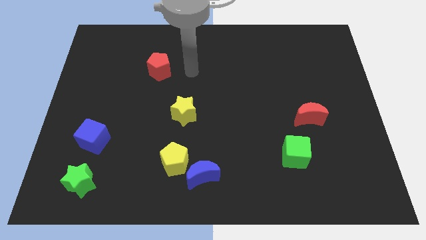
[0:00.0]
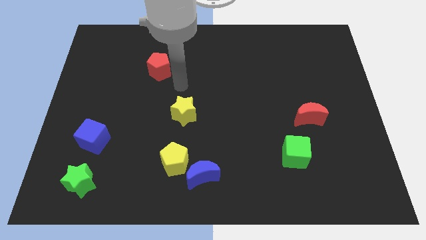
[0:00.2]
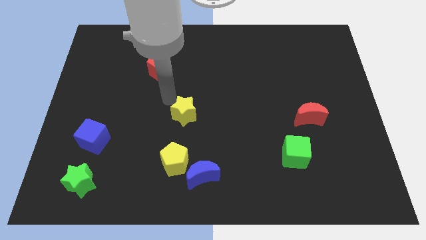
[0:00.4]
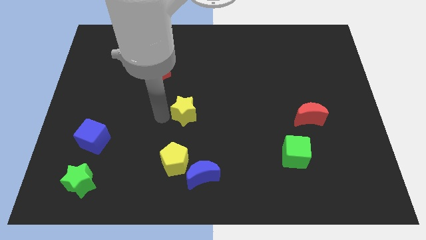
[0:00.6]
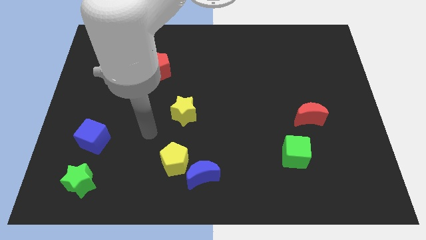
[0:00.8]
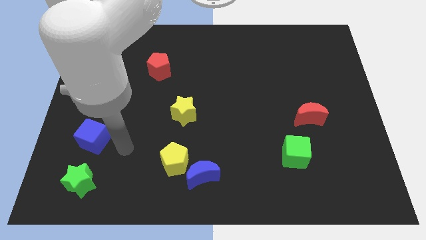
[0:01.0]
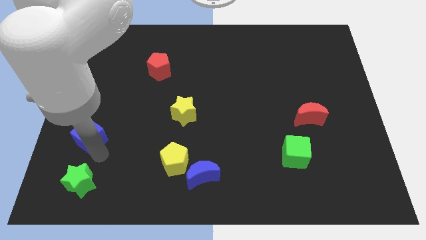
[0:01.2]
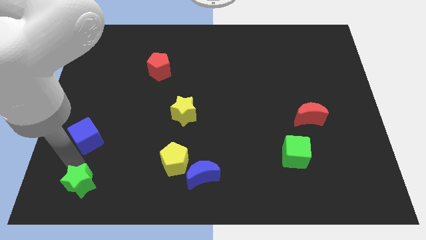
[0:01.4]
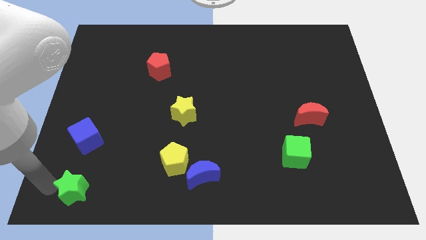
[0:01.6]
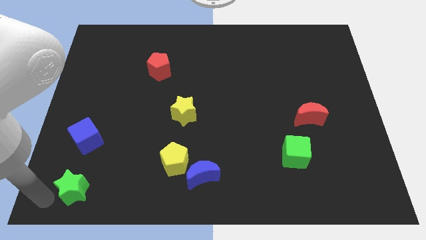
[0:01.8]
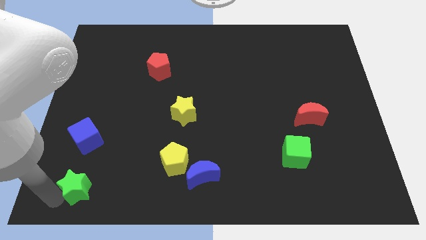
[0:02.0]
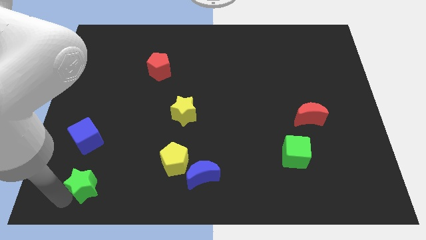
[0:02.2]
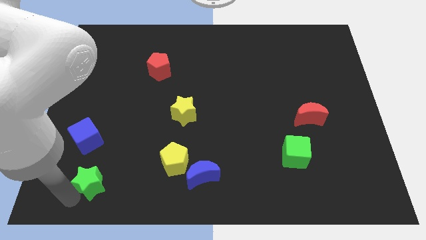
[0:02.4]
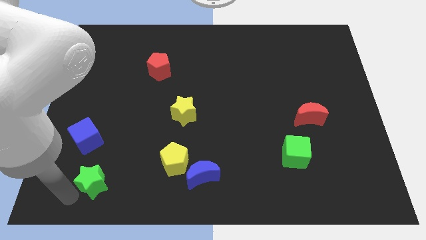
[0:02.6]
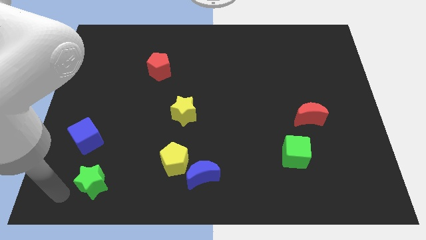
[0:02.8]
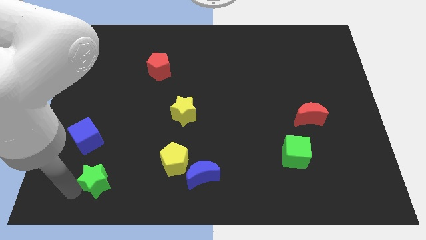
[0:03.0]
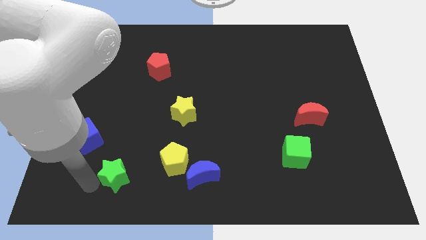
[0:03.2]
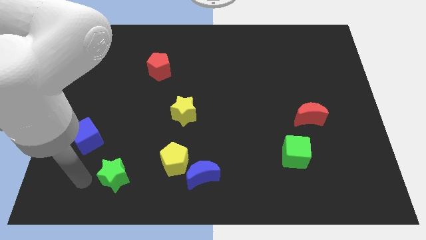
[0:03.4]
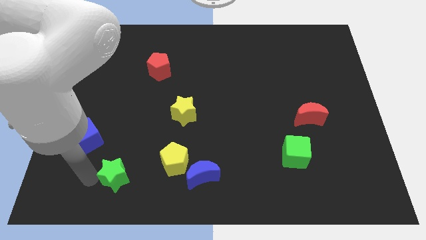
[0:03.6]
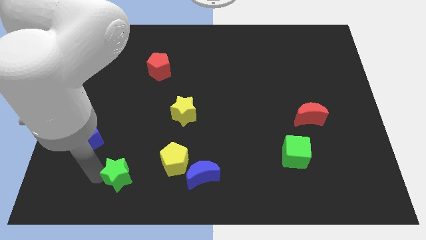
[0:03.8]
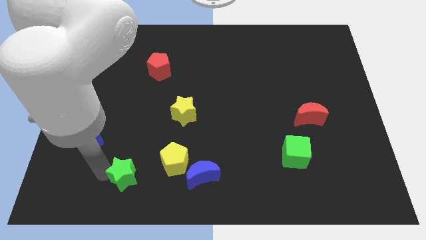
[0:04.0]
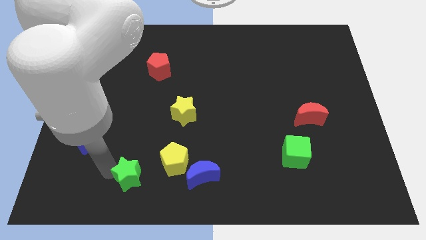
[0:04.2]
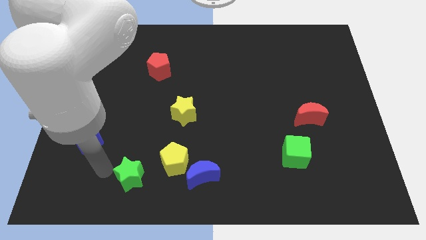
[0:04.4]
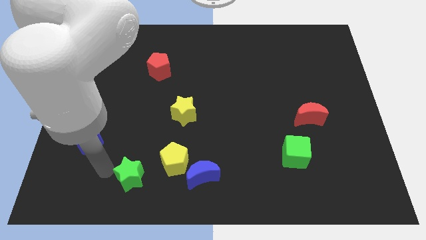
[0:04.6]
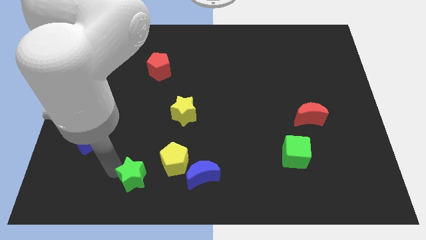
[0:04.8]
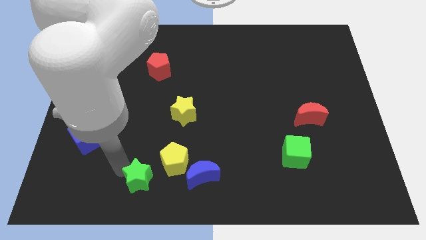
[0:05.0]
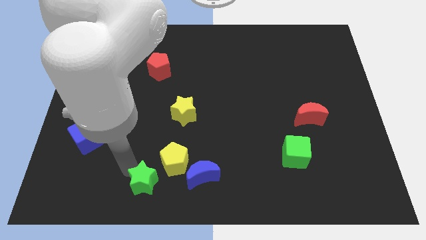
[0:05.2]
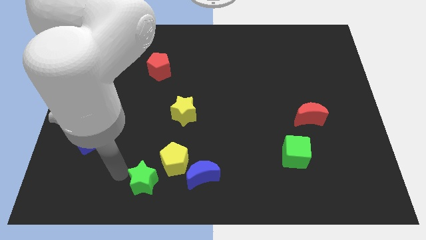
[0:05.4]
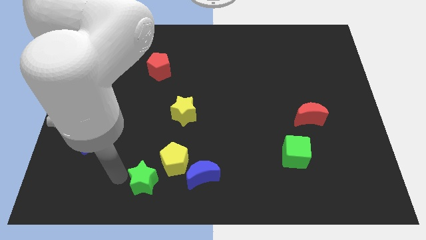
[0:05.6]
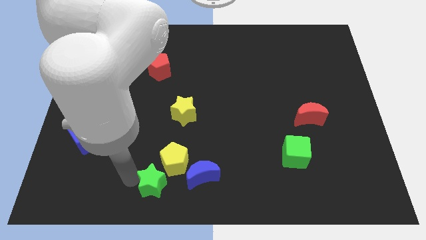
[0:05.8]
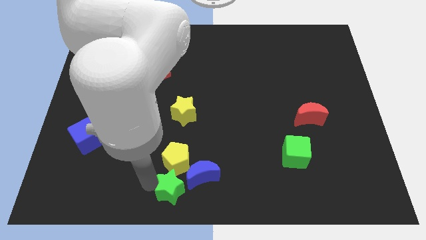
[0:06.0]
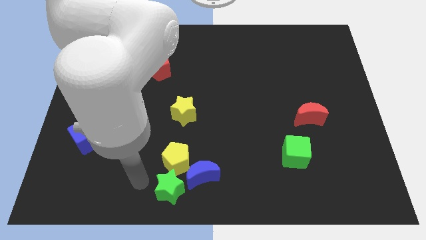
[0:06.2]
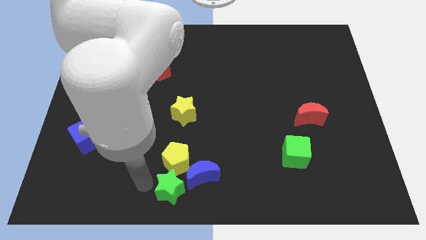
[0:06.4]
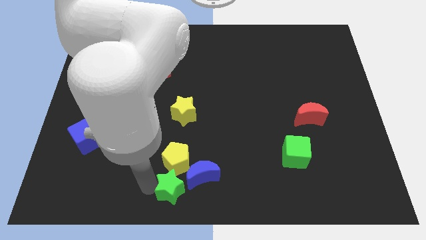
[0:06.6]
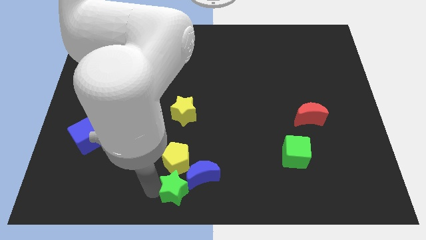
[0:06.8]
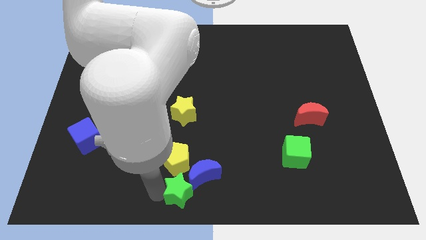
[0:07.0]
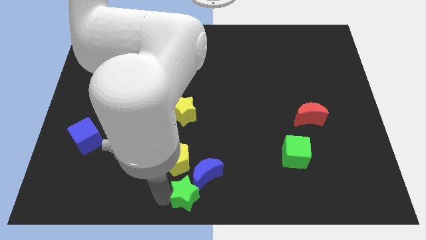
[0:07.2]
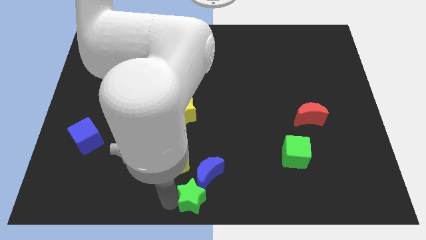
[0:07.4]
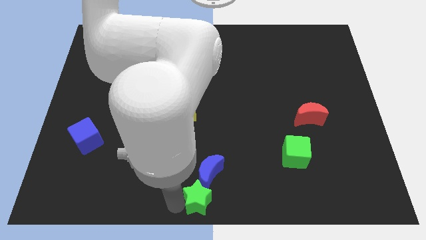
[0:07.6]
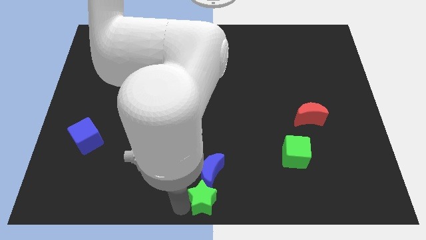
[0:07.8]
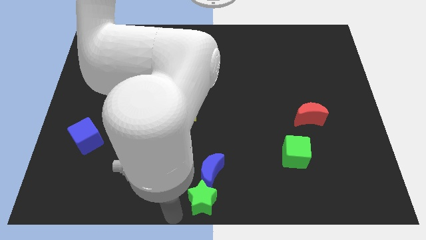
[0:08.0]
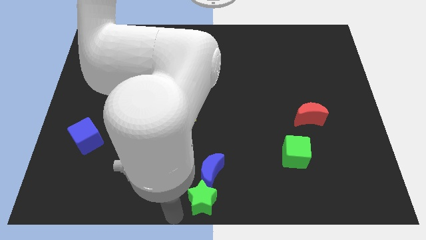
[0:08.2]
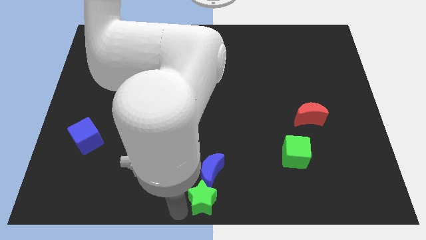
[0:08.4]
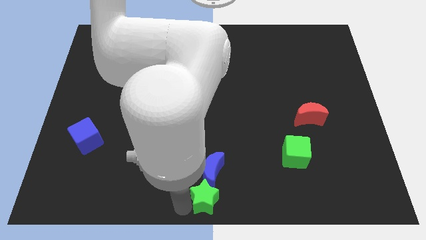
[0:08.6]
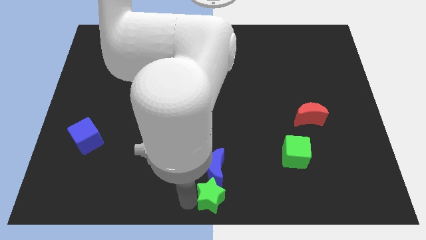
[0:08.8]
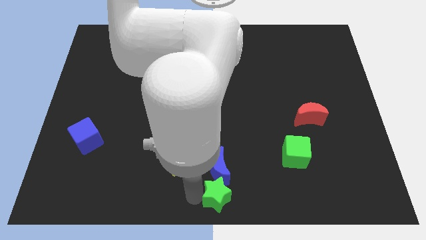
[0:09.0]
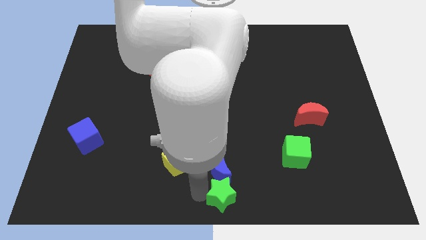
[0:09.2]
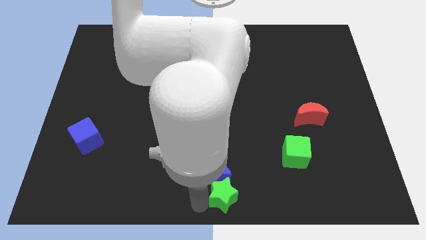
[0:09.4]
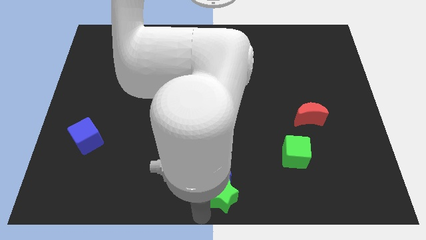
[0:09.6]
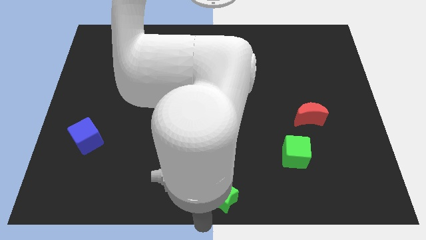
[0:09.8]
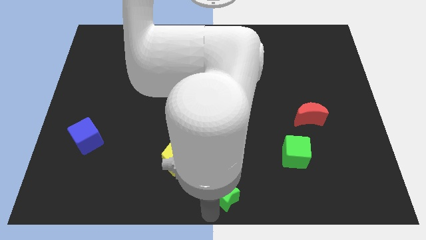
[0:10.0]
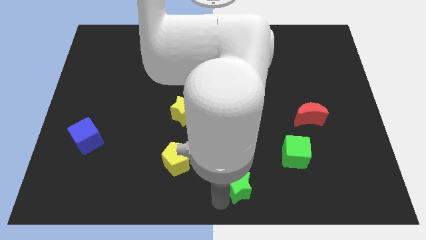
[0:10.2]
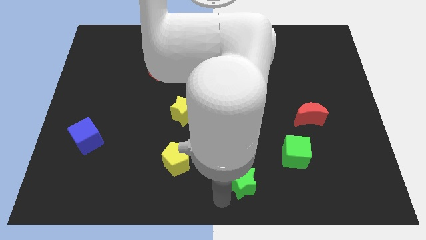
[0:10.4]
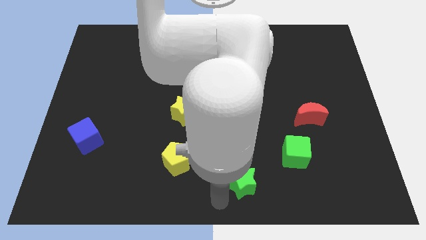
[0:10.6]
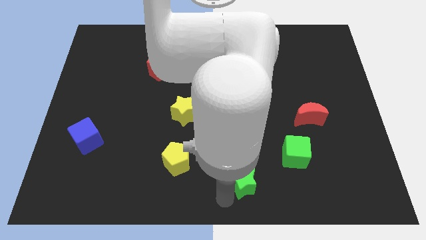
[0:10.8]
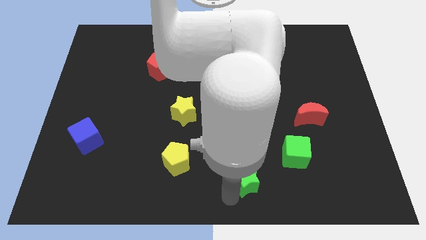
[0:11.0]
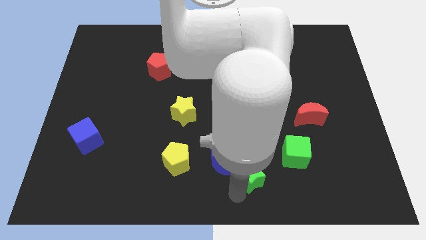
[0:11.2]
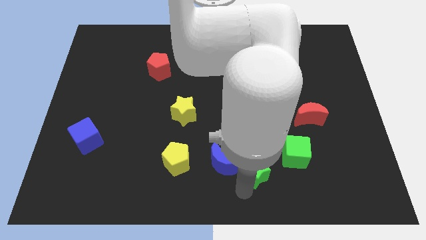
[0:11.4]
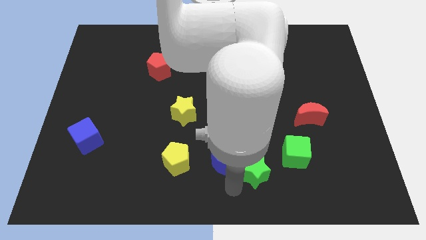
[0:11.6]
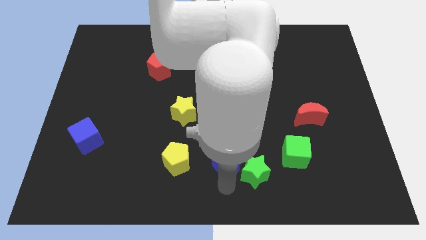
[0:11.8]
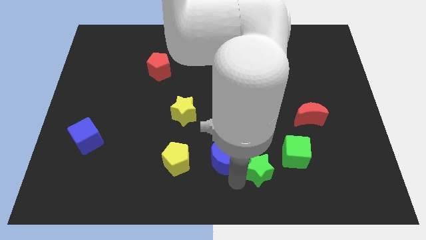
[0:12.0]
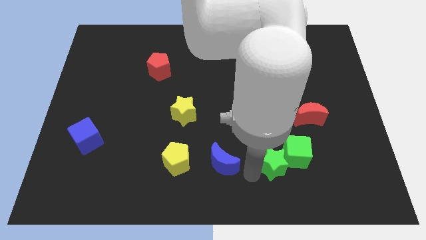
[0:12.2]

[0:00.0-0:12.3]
push the green star close to the green cube

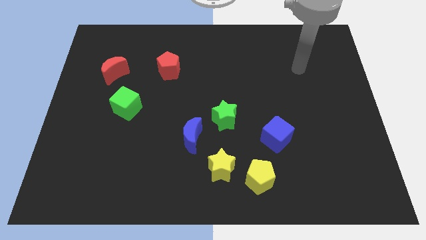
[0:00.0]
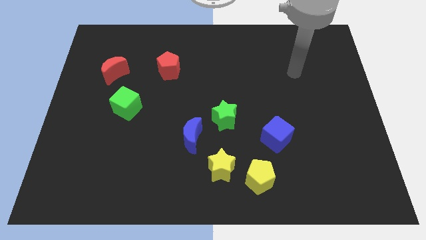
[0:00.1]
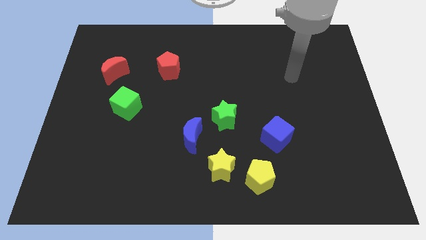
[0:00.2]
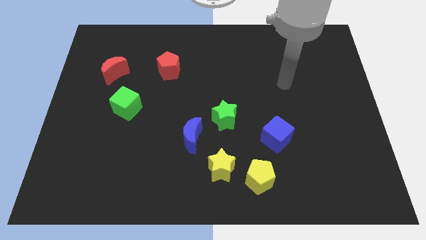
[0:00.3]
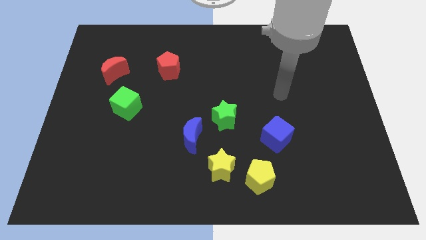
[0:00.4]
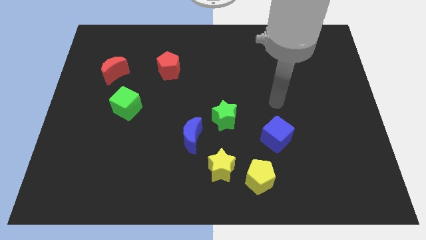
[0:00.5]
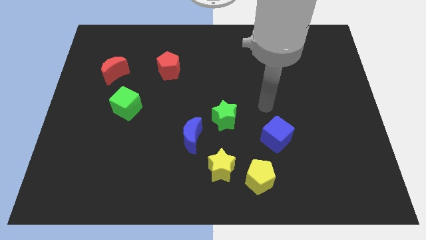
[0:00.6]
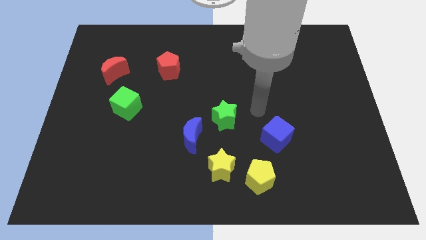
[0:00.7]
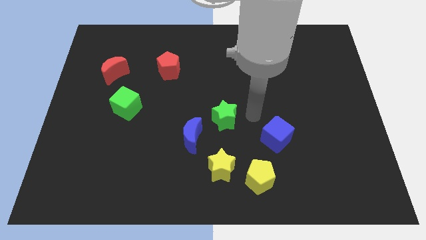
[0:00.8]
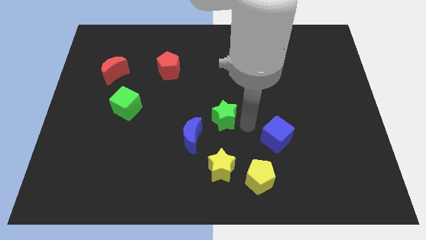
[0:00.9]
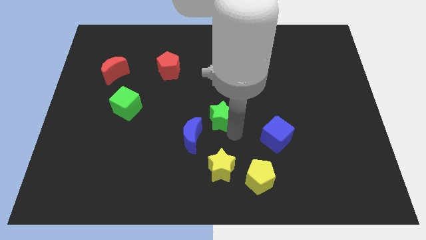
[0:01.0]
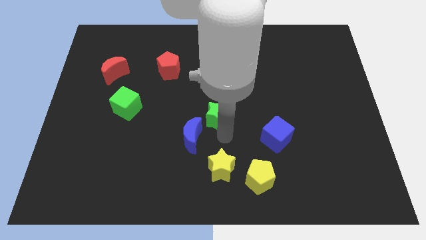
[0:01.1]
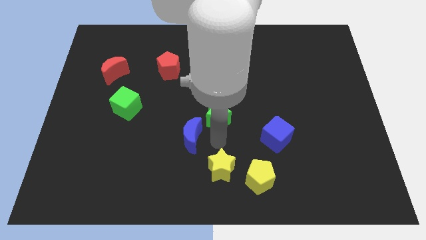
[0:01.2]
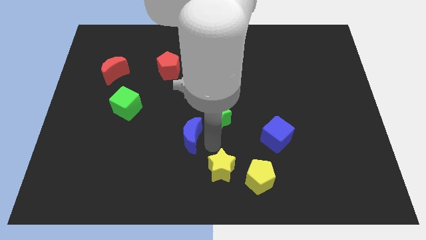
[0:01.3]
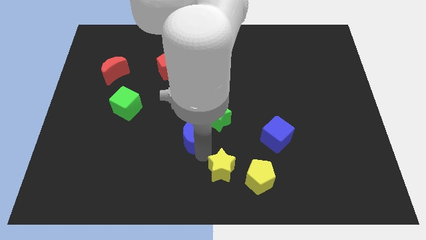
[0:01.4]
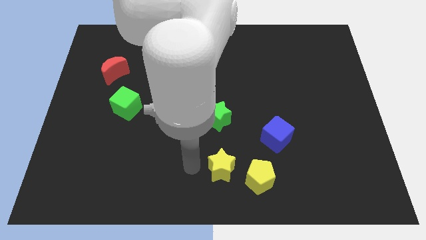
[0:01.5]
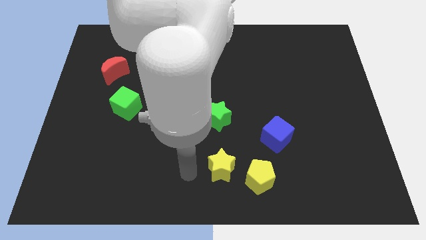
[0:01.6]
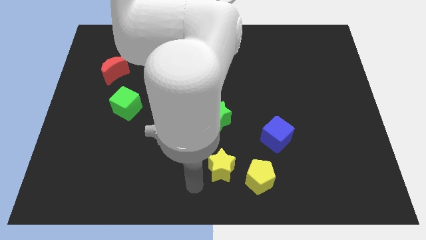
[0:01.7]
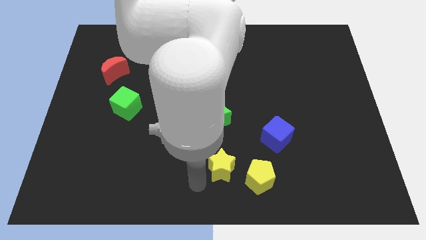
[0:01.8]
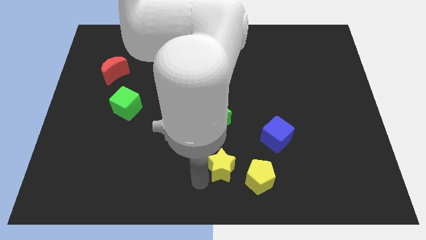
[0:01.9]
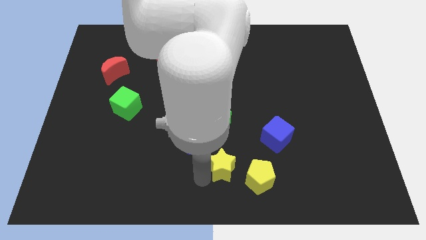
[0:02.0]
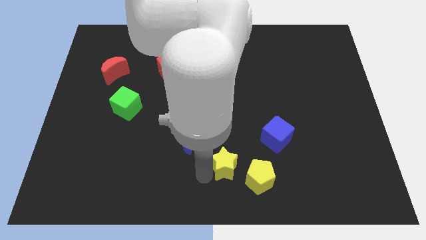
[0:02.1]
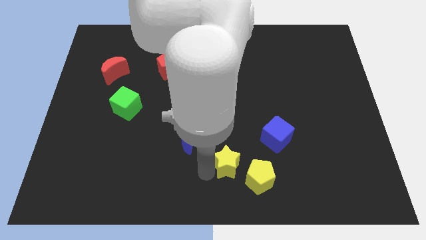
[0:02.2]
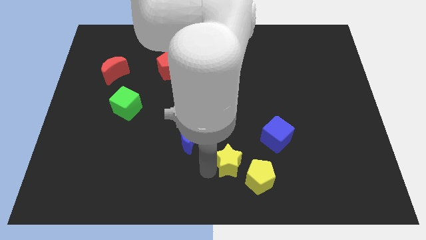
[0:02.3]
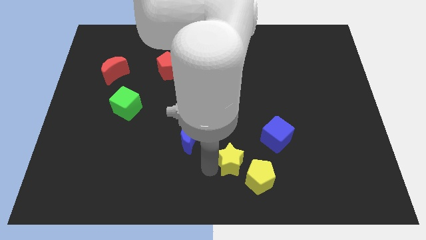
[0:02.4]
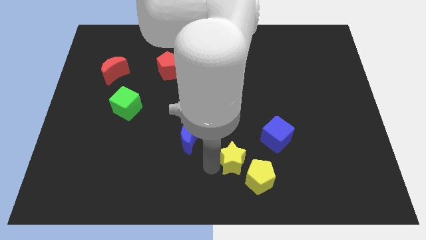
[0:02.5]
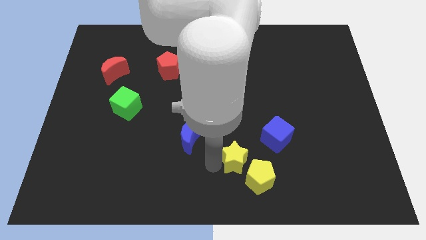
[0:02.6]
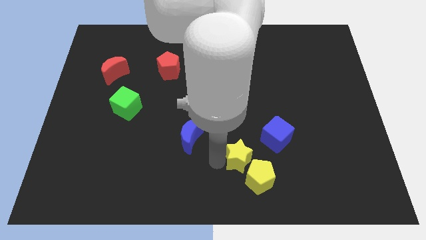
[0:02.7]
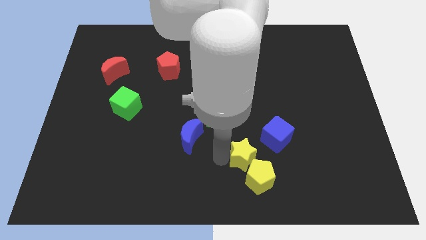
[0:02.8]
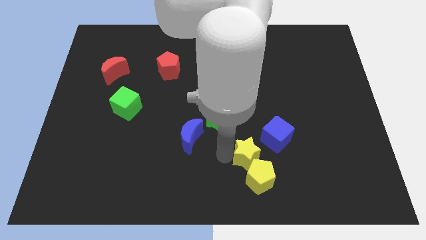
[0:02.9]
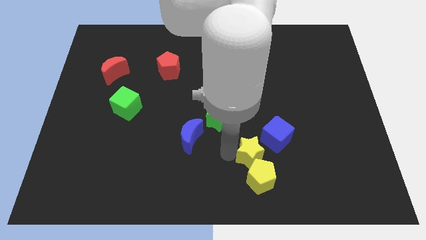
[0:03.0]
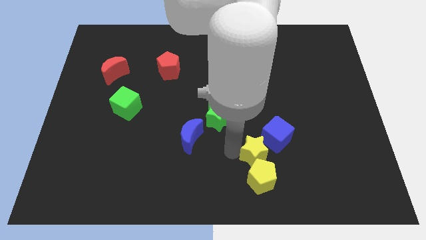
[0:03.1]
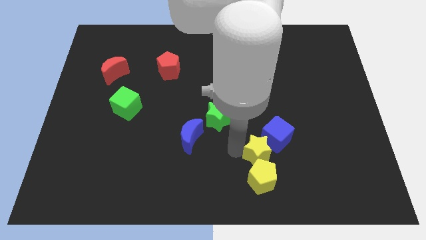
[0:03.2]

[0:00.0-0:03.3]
slide the yellow star close to the blue cube
